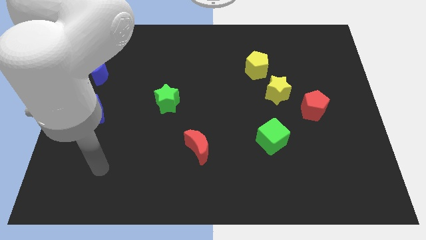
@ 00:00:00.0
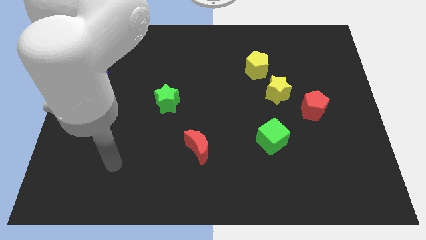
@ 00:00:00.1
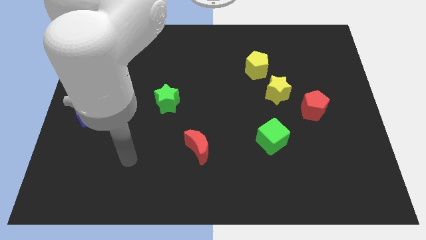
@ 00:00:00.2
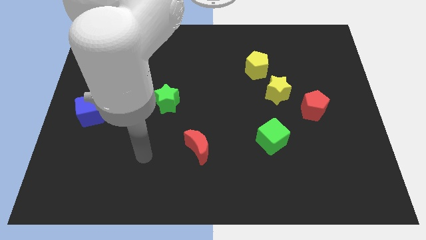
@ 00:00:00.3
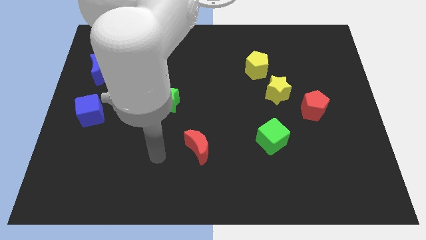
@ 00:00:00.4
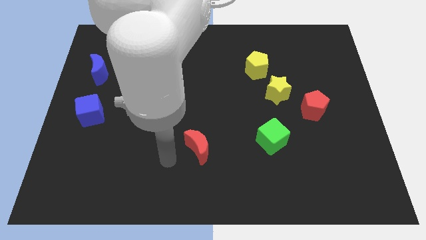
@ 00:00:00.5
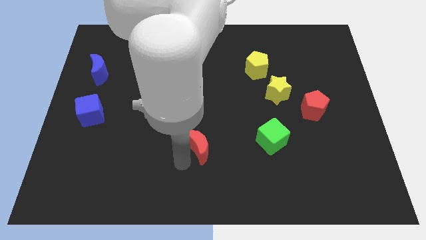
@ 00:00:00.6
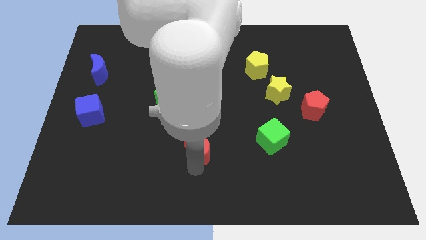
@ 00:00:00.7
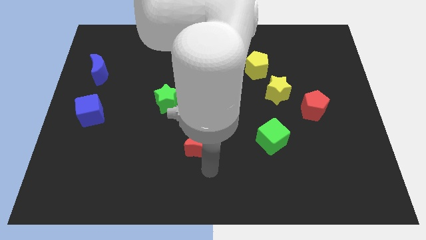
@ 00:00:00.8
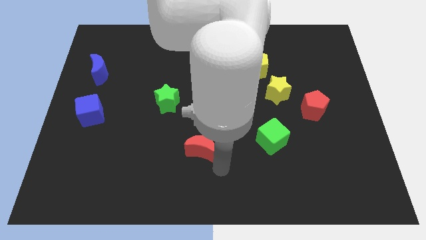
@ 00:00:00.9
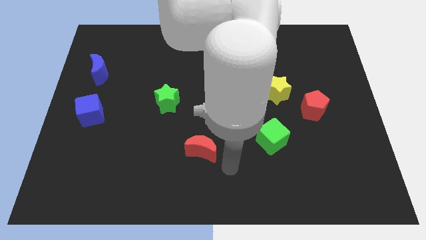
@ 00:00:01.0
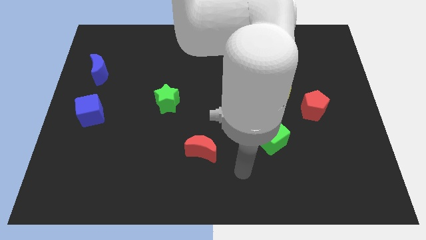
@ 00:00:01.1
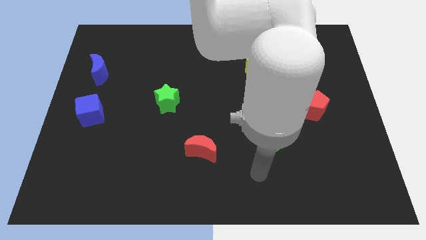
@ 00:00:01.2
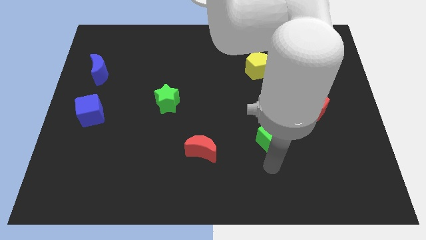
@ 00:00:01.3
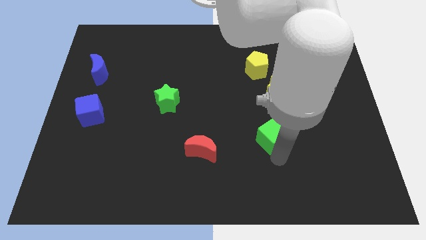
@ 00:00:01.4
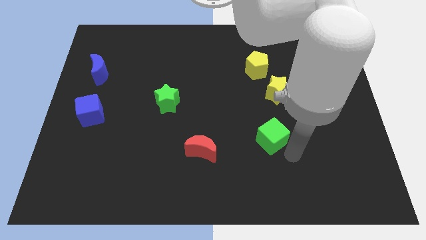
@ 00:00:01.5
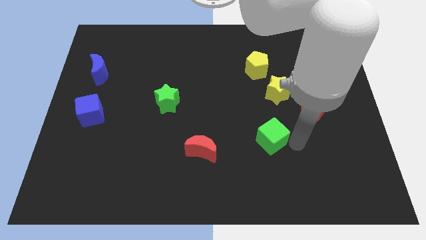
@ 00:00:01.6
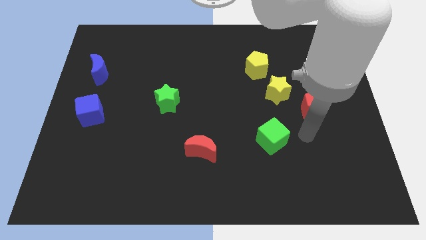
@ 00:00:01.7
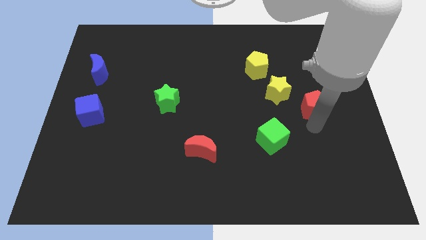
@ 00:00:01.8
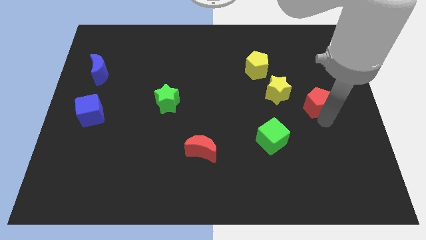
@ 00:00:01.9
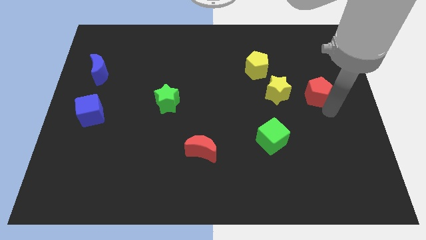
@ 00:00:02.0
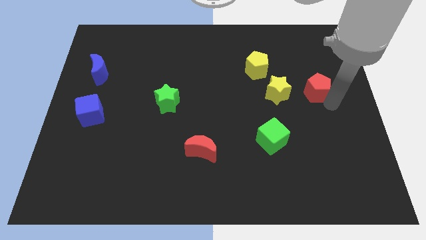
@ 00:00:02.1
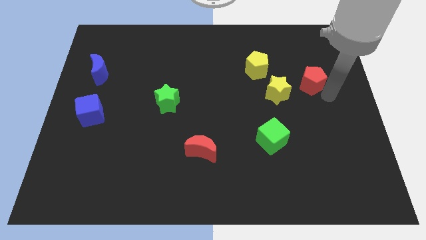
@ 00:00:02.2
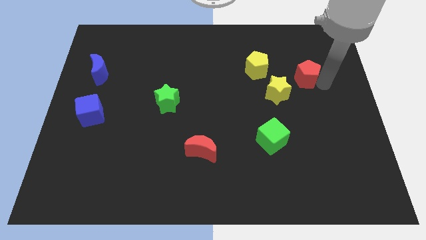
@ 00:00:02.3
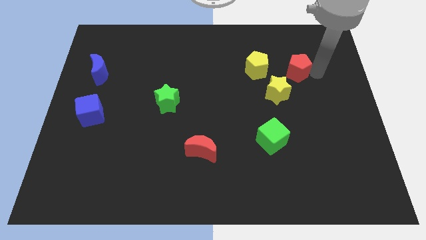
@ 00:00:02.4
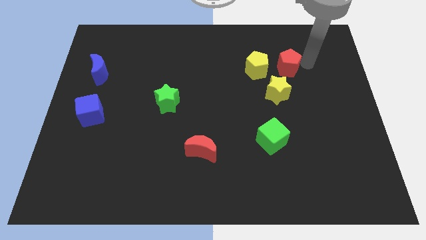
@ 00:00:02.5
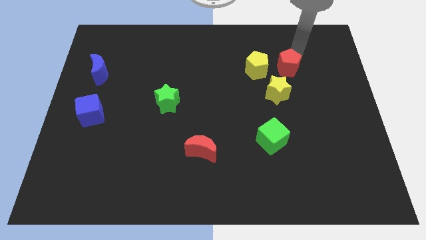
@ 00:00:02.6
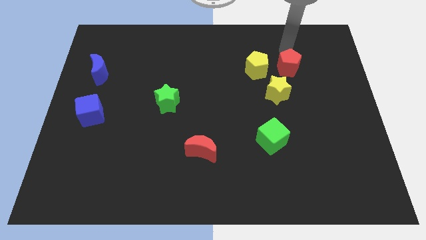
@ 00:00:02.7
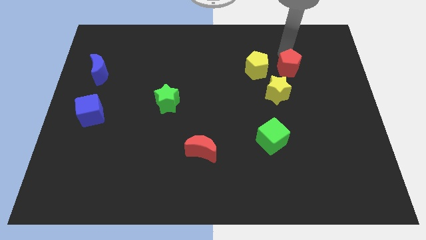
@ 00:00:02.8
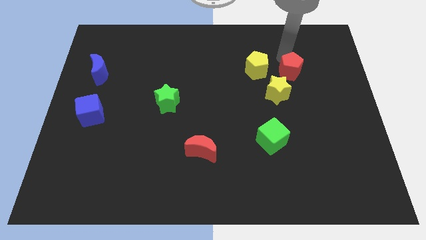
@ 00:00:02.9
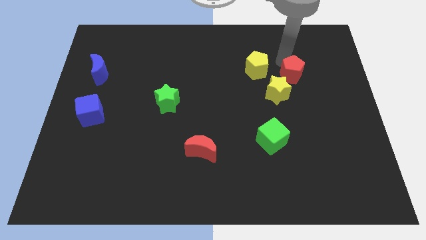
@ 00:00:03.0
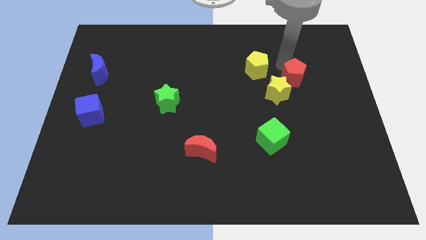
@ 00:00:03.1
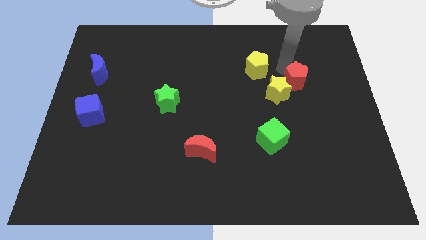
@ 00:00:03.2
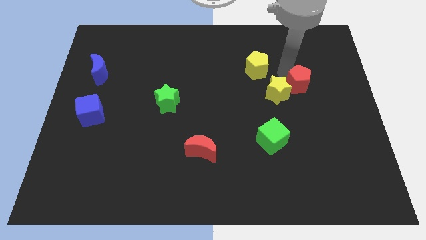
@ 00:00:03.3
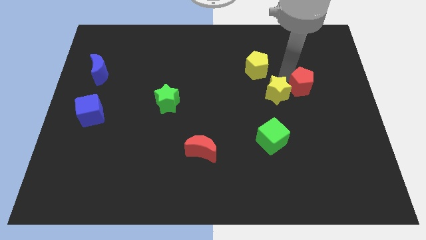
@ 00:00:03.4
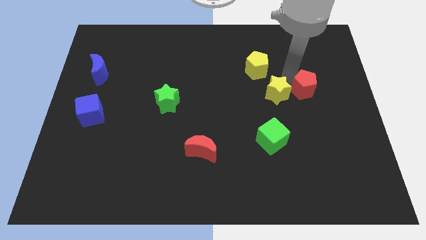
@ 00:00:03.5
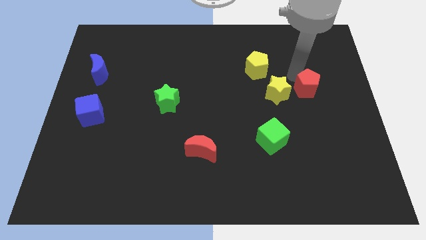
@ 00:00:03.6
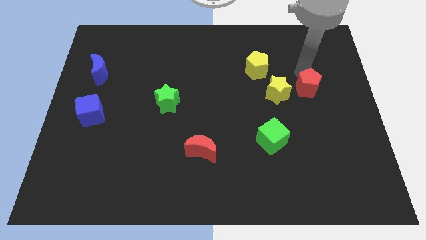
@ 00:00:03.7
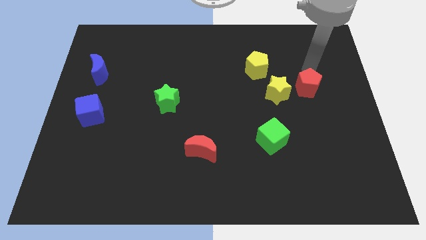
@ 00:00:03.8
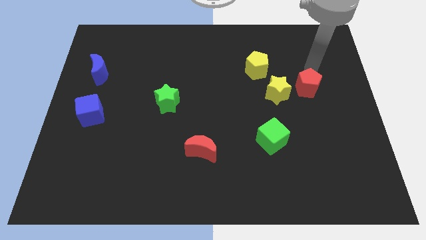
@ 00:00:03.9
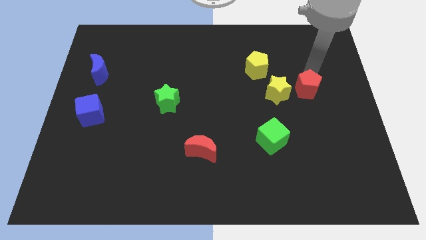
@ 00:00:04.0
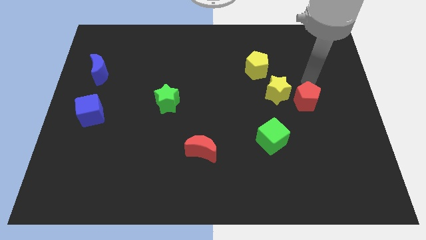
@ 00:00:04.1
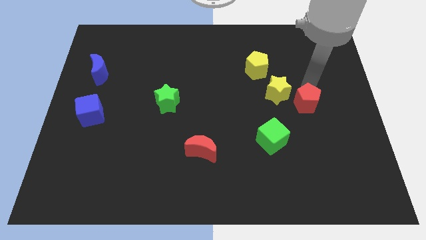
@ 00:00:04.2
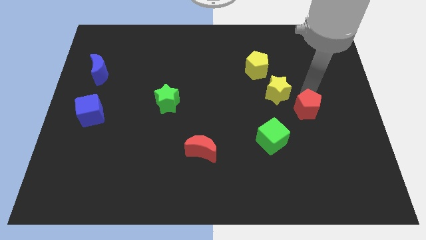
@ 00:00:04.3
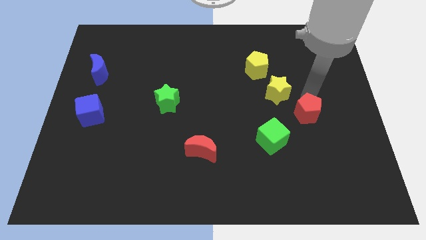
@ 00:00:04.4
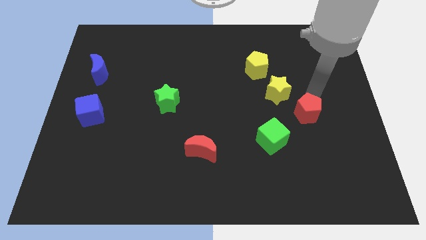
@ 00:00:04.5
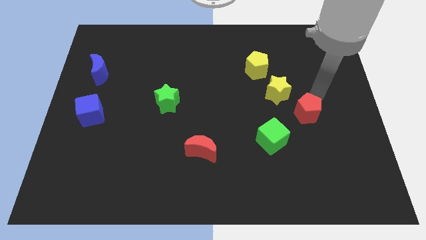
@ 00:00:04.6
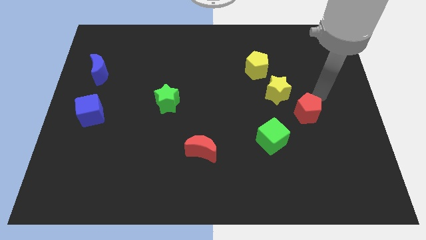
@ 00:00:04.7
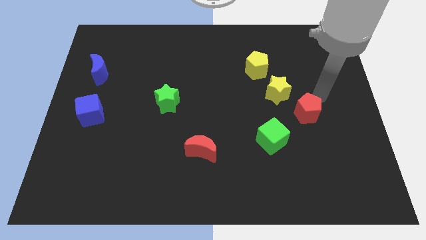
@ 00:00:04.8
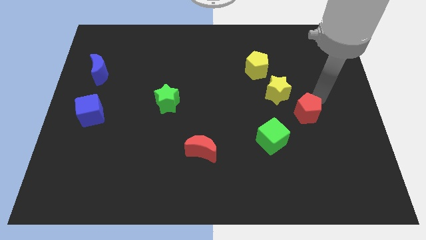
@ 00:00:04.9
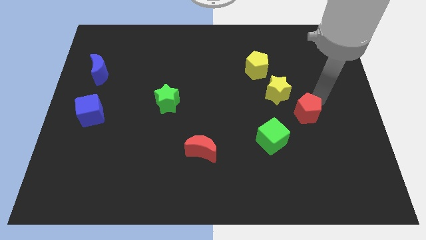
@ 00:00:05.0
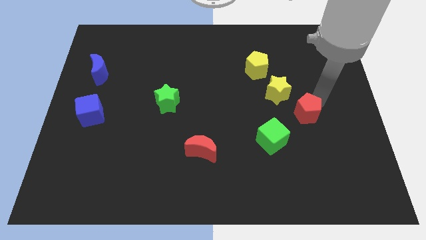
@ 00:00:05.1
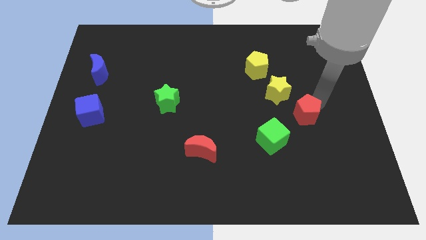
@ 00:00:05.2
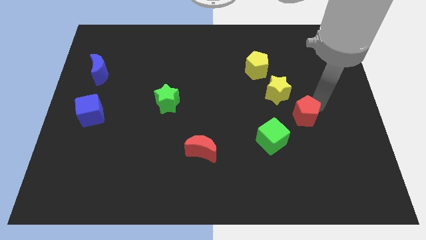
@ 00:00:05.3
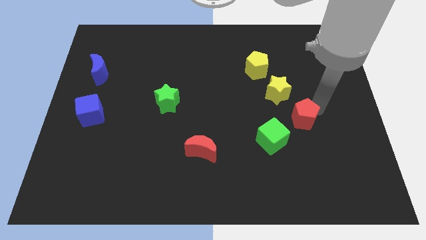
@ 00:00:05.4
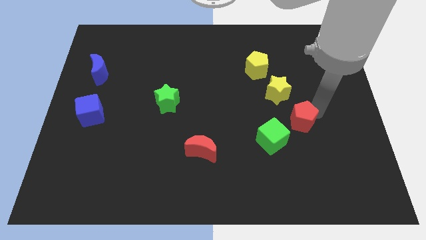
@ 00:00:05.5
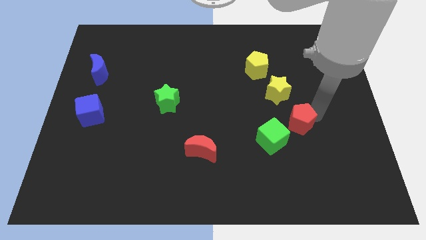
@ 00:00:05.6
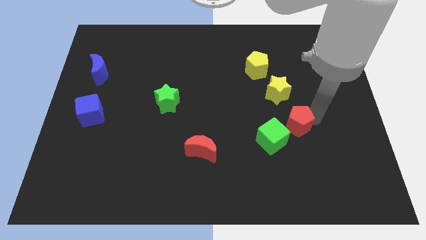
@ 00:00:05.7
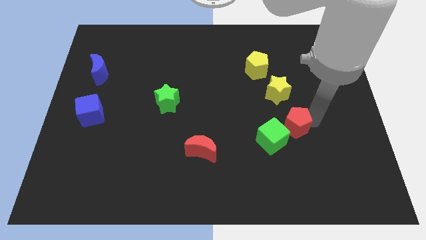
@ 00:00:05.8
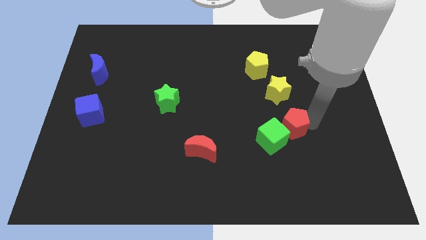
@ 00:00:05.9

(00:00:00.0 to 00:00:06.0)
move the red pentagon next to the green cube
